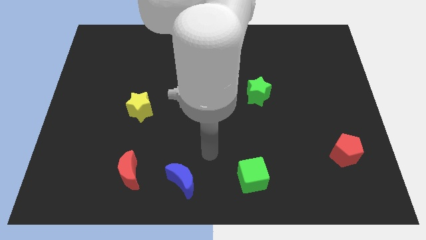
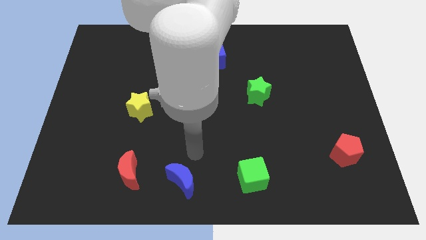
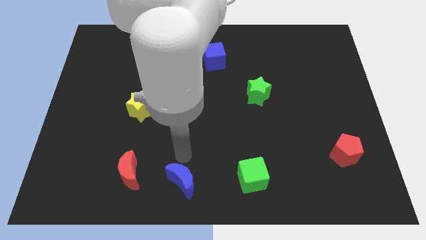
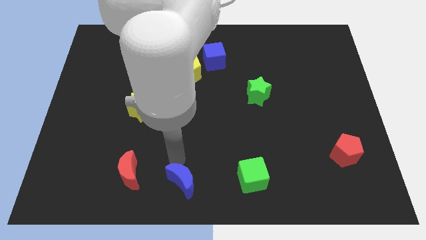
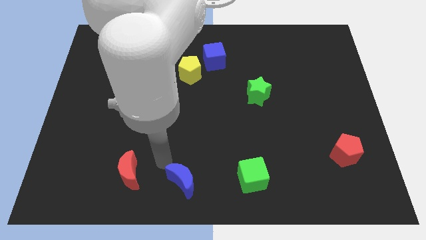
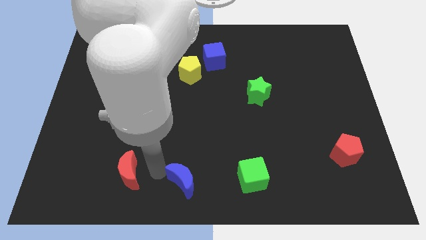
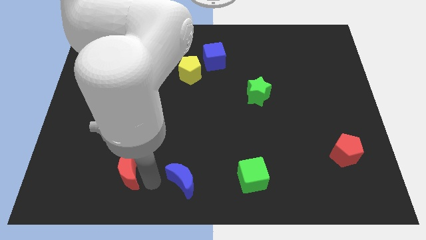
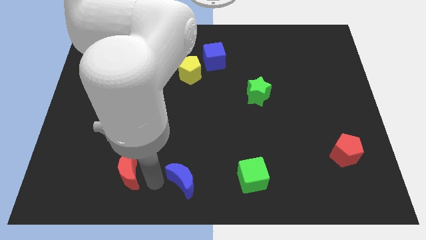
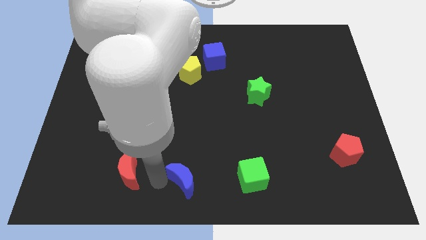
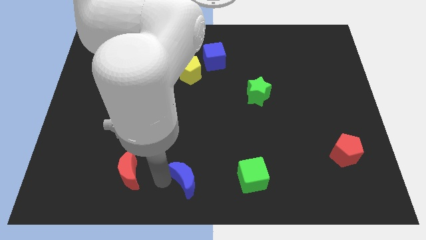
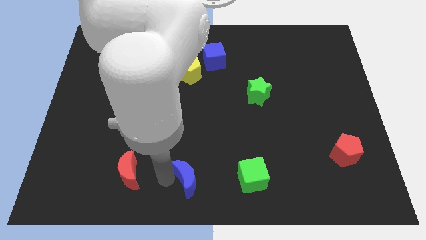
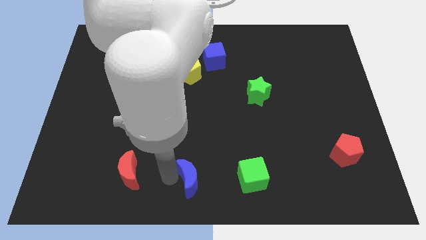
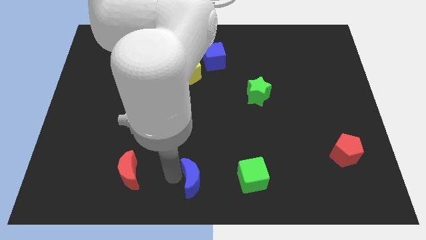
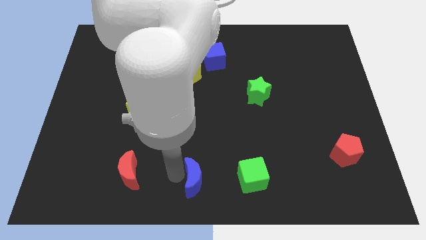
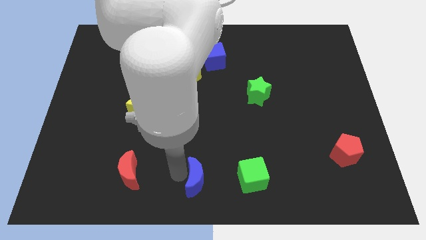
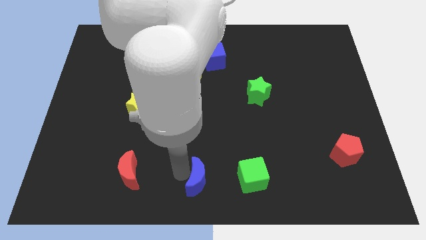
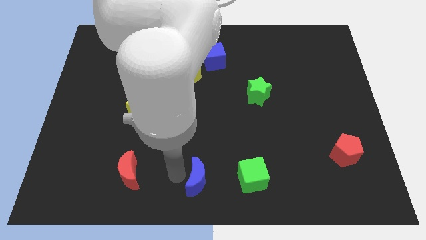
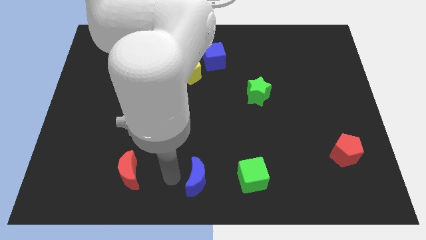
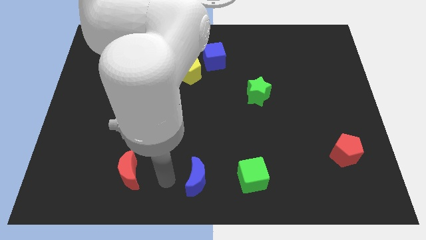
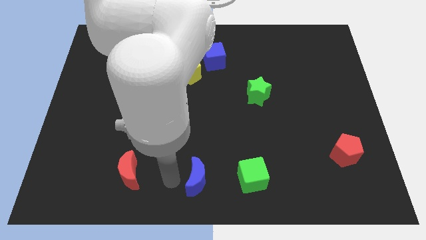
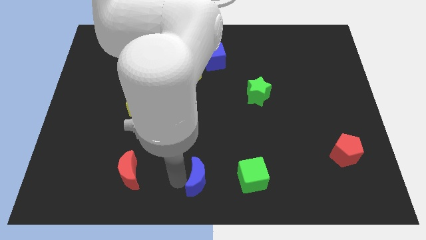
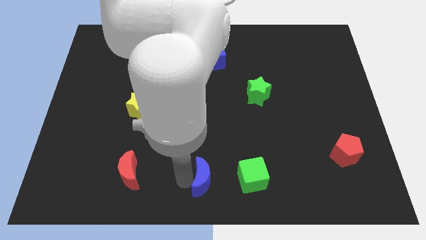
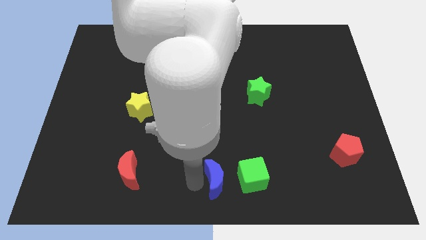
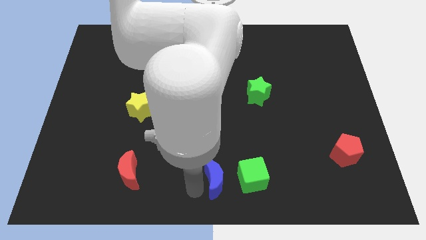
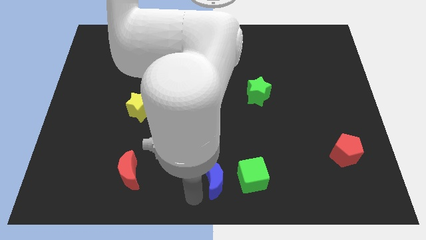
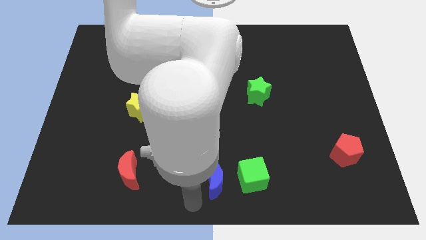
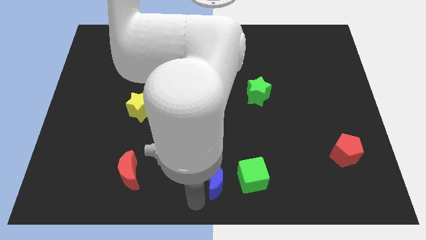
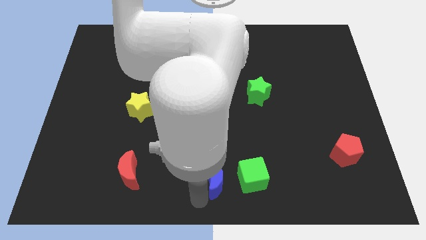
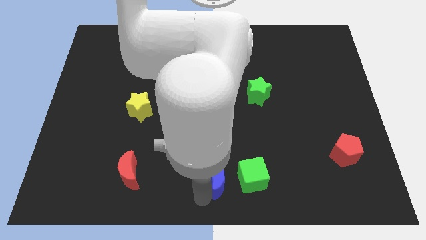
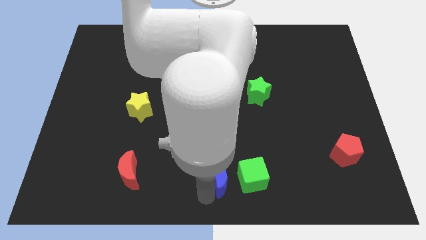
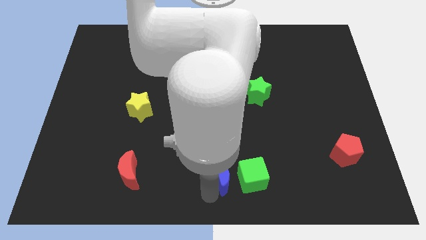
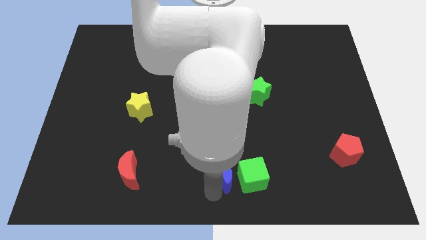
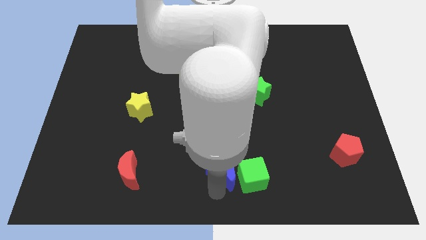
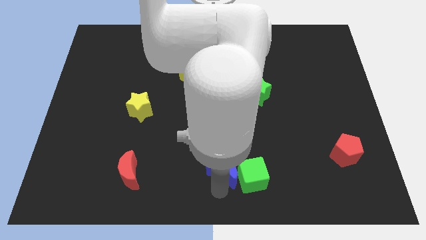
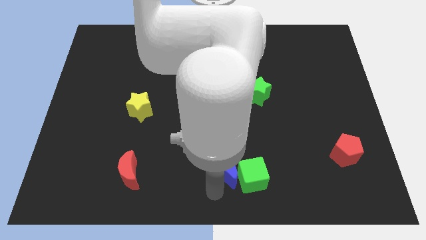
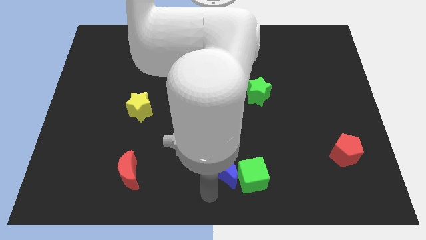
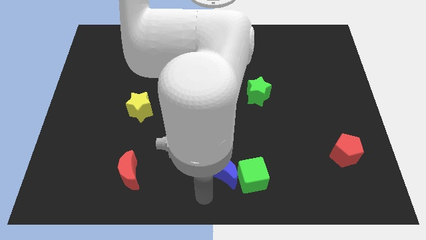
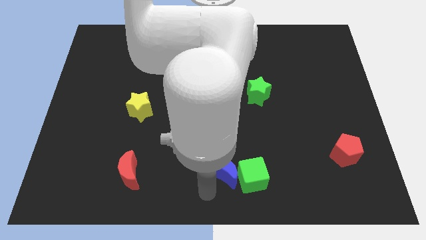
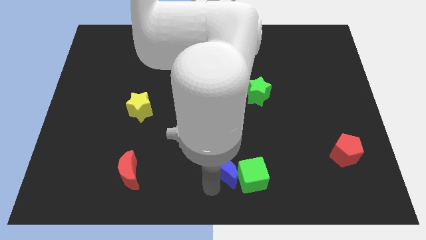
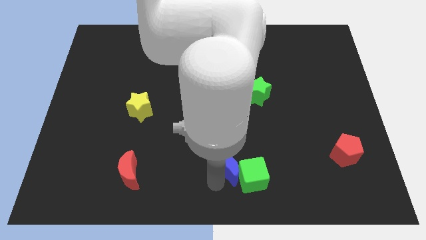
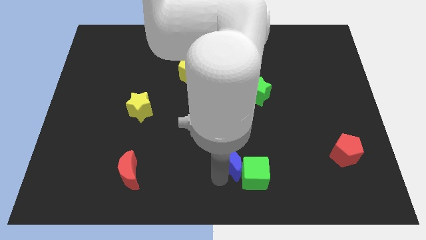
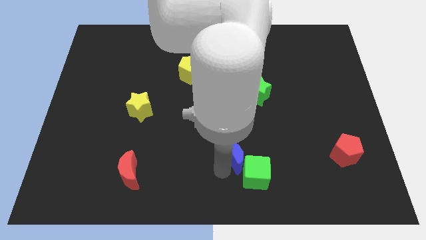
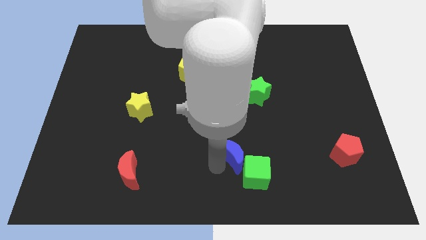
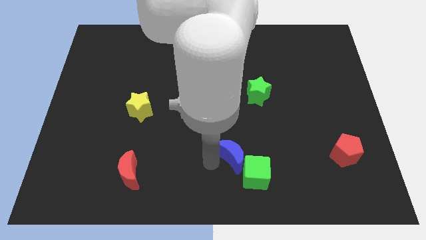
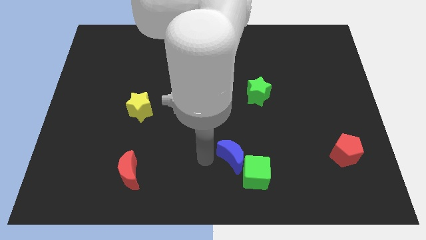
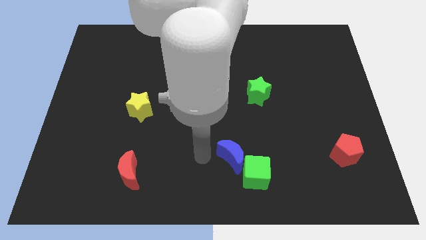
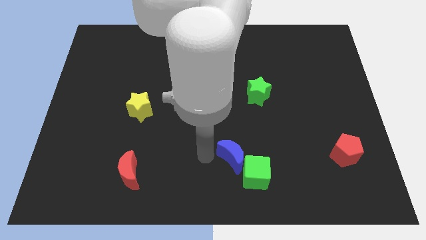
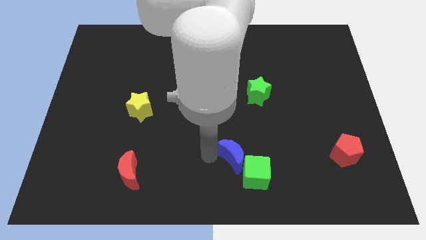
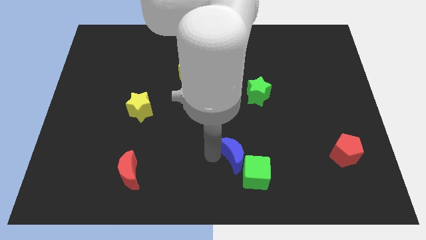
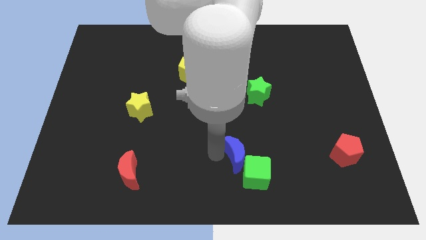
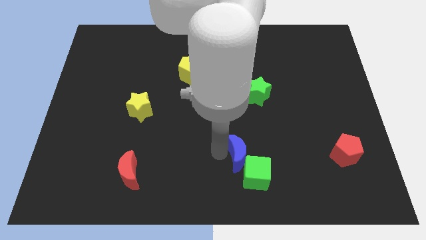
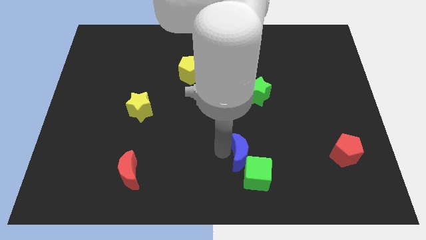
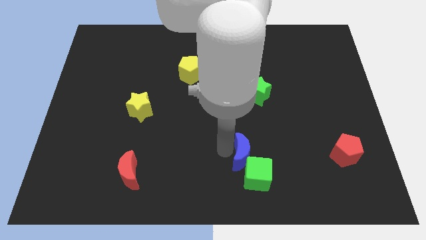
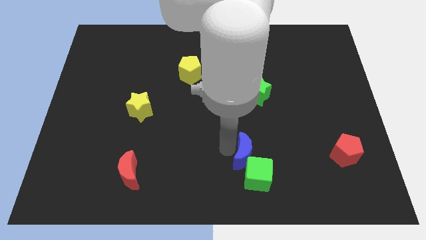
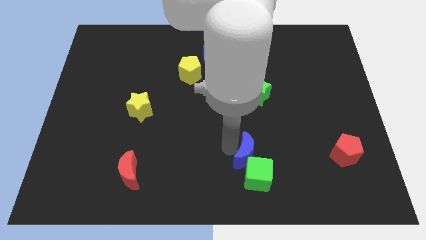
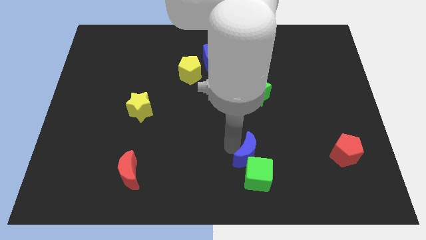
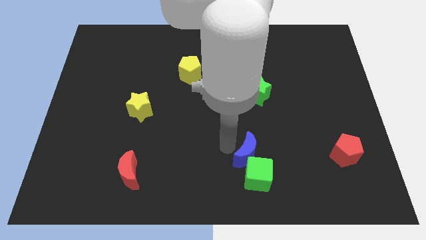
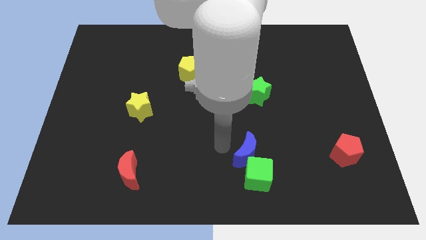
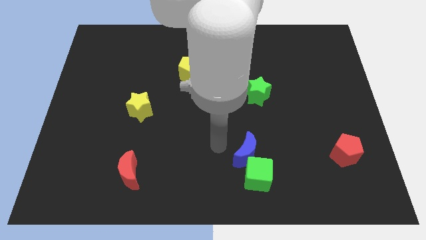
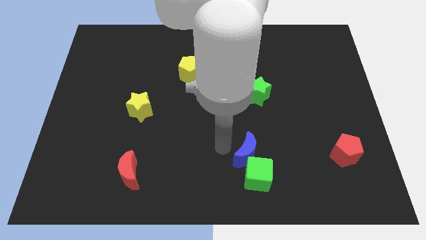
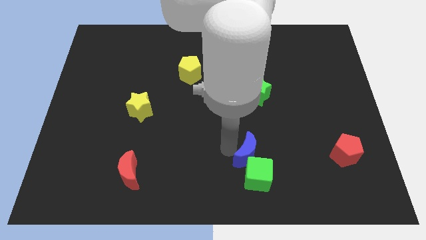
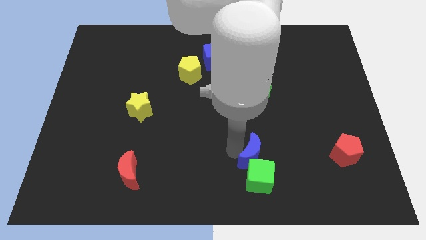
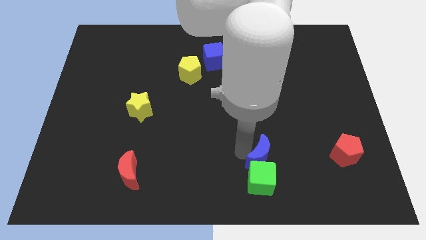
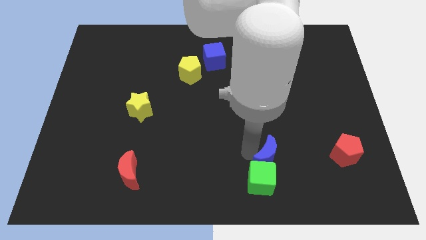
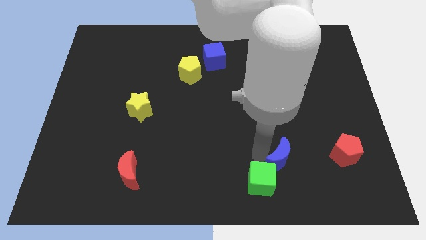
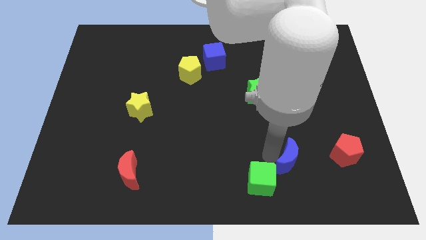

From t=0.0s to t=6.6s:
push the blue moon to the right side of the green cube

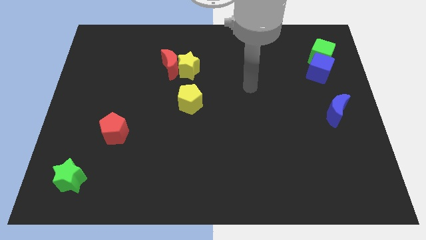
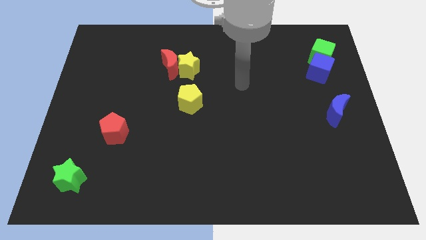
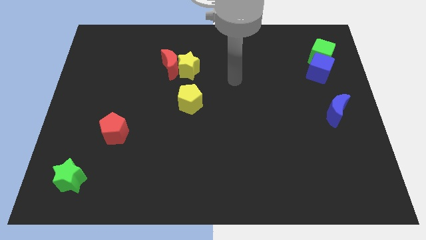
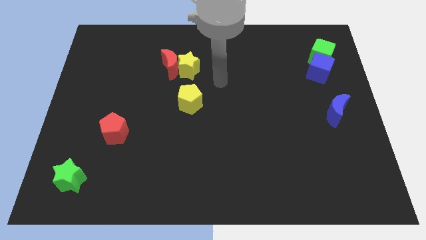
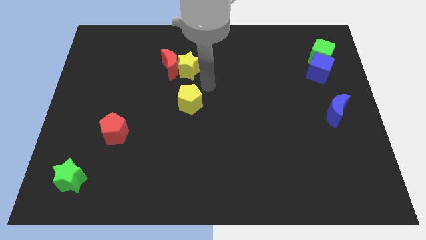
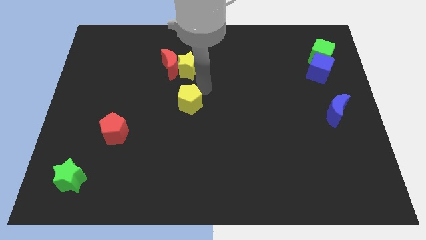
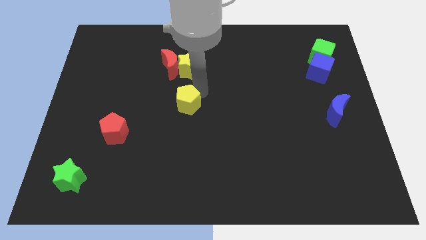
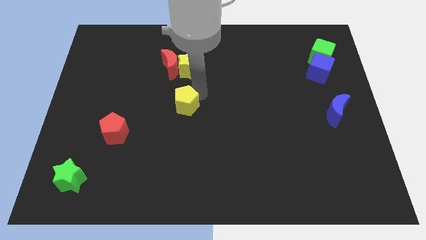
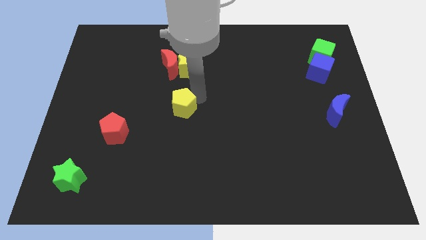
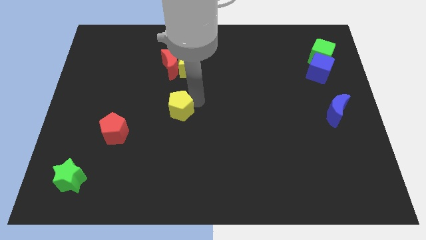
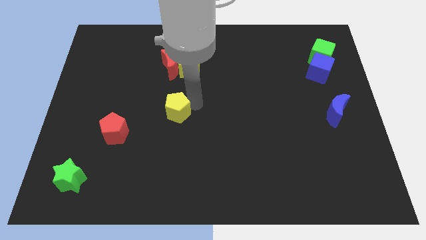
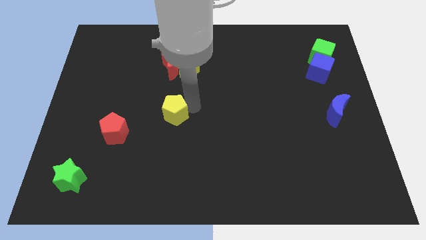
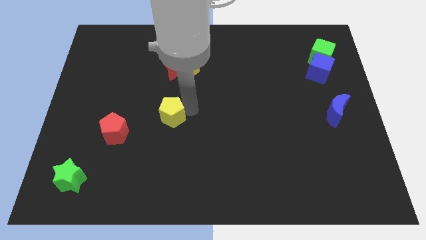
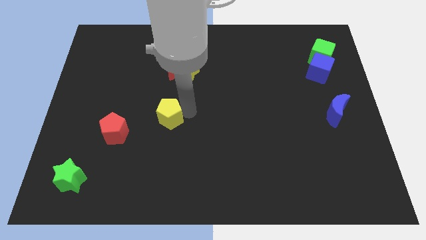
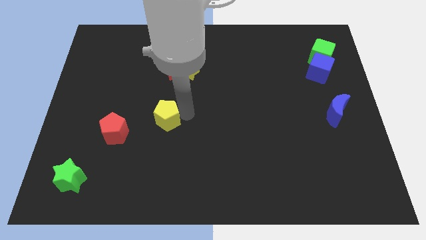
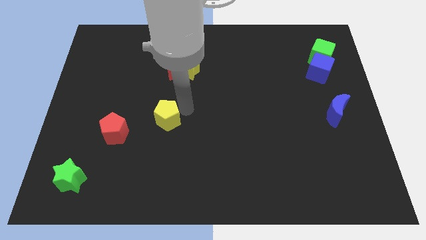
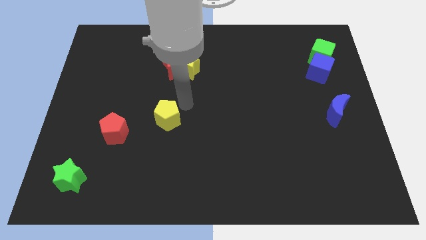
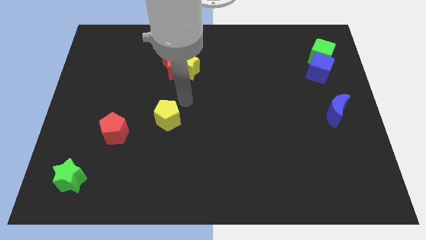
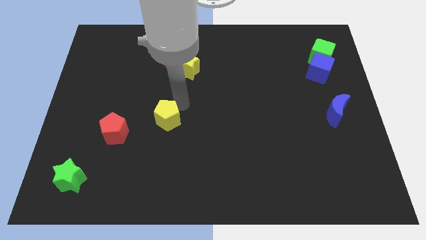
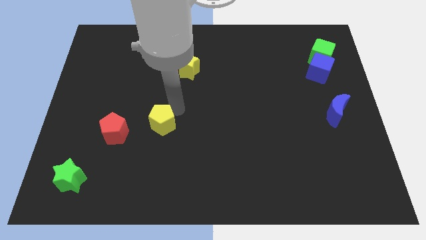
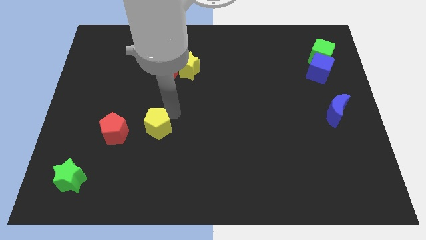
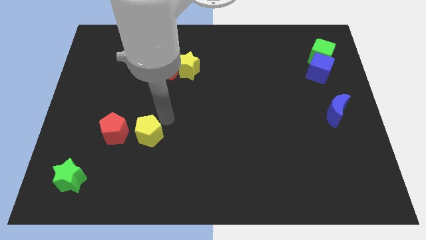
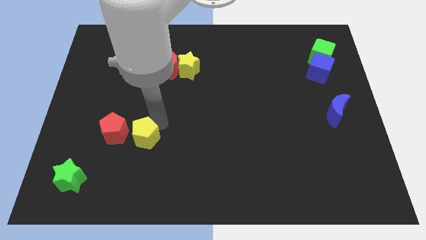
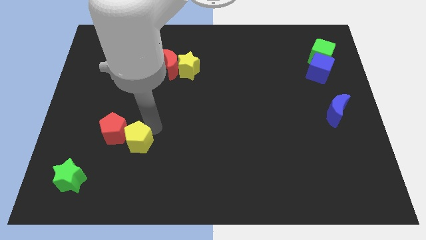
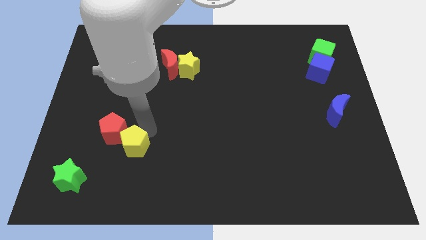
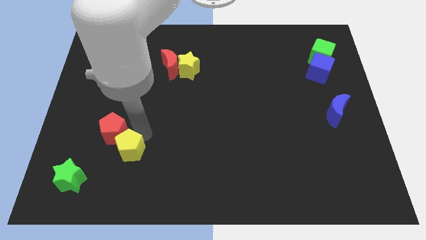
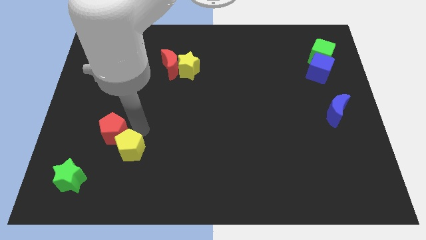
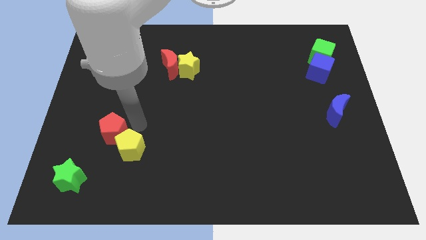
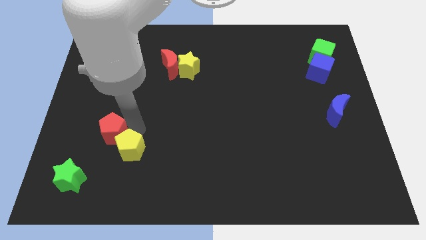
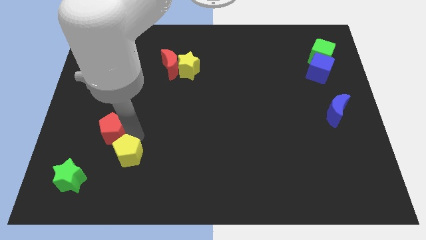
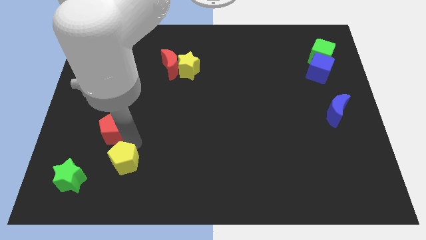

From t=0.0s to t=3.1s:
slide the yellow pentagon to the right of the green star
